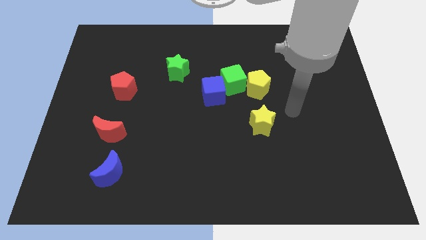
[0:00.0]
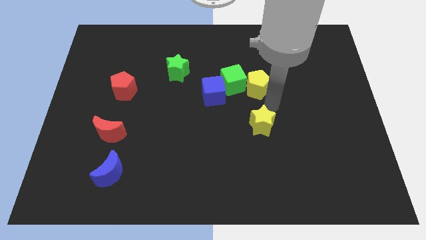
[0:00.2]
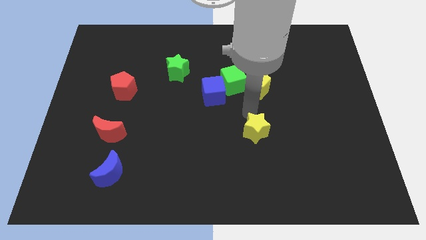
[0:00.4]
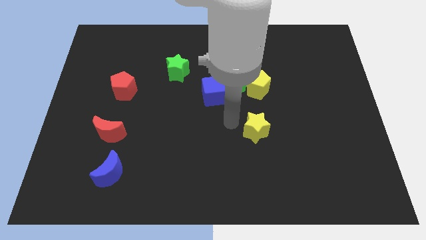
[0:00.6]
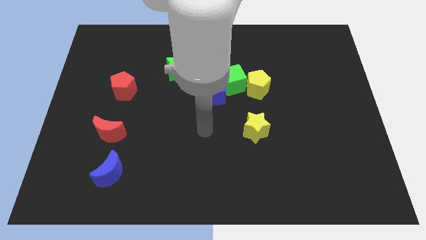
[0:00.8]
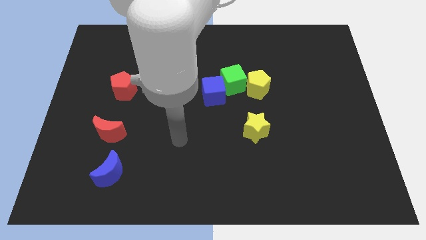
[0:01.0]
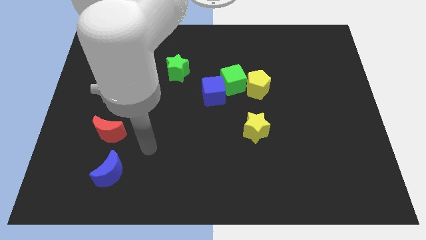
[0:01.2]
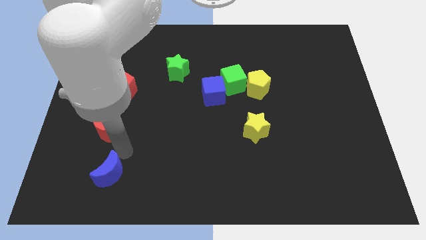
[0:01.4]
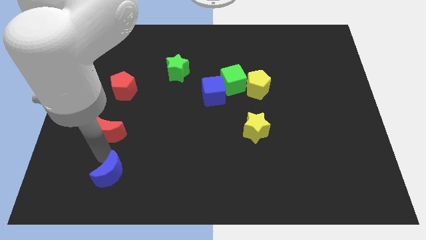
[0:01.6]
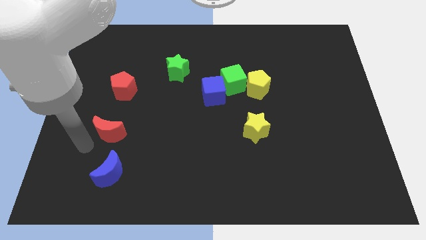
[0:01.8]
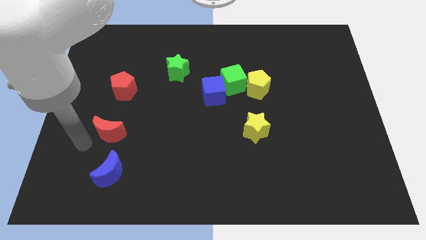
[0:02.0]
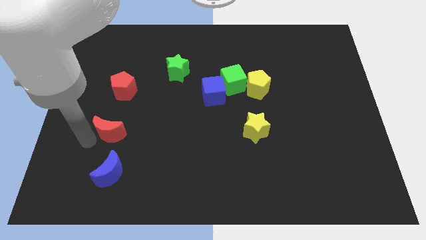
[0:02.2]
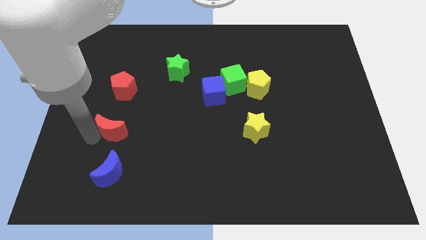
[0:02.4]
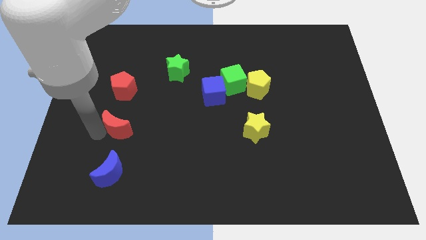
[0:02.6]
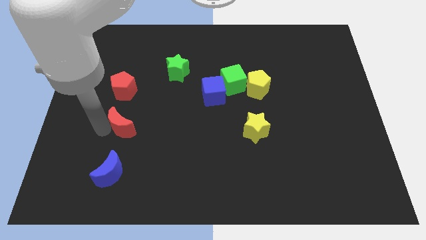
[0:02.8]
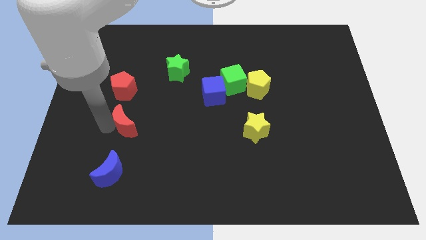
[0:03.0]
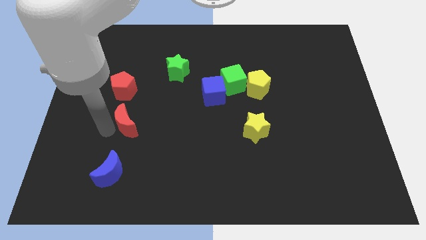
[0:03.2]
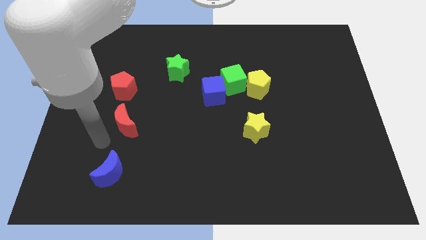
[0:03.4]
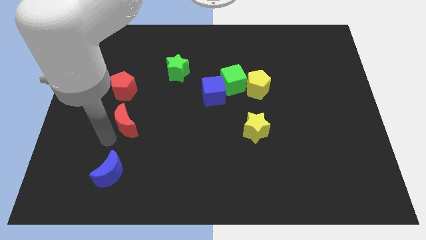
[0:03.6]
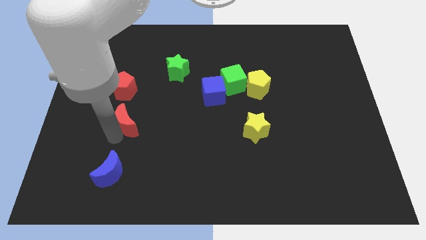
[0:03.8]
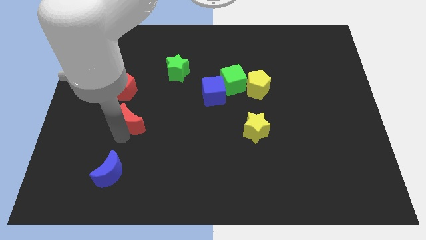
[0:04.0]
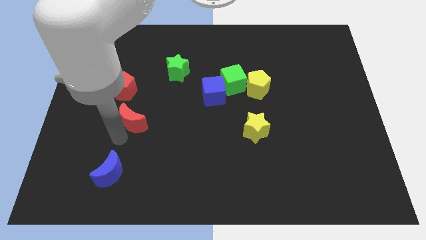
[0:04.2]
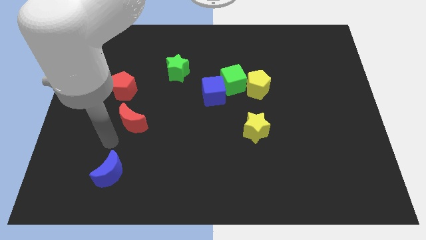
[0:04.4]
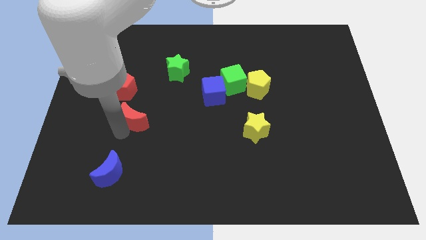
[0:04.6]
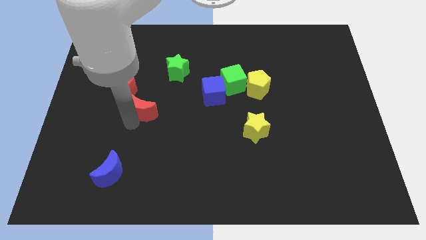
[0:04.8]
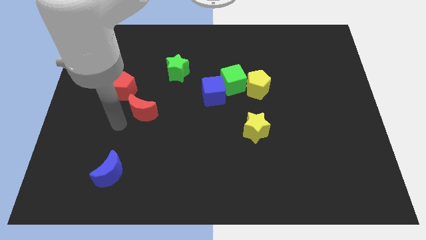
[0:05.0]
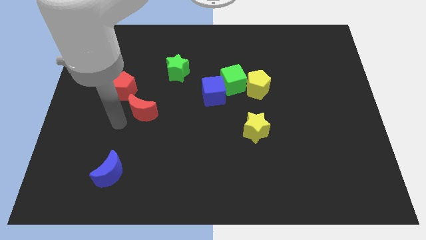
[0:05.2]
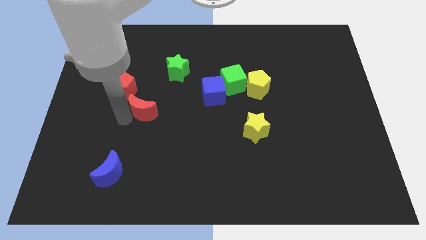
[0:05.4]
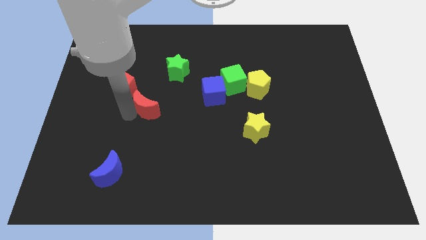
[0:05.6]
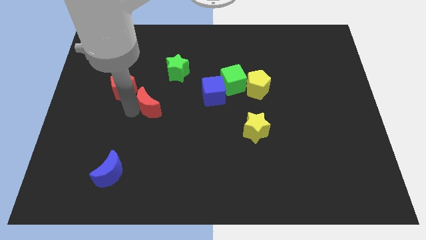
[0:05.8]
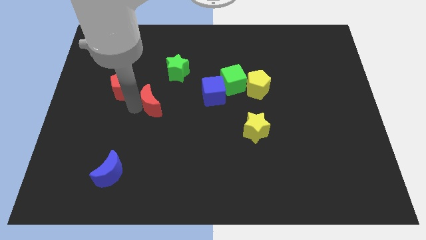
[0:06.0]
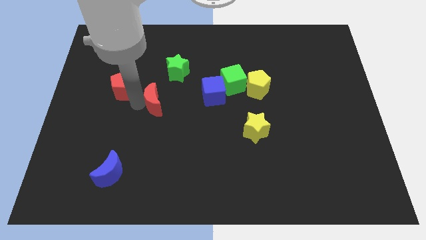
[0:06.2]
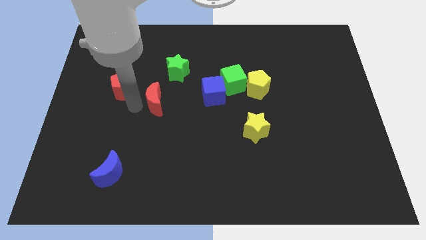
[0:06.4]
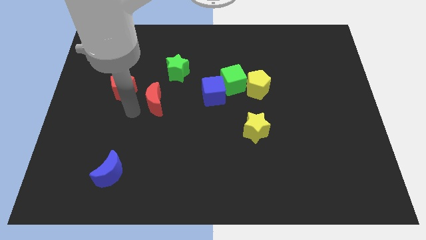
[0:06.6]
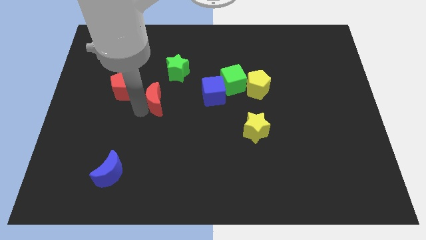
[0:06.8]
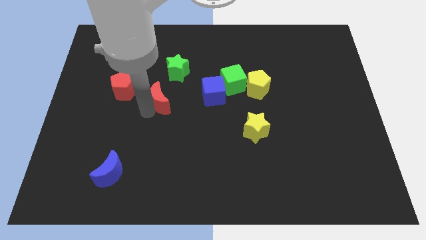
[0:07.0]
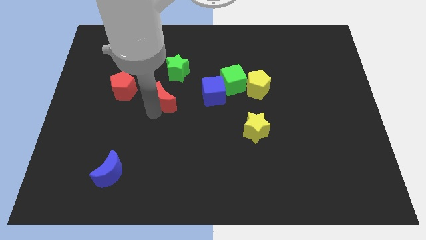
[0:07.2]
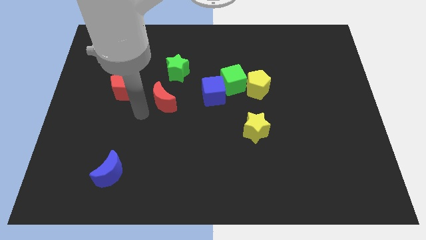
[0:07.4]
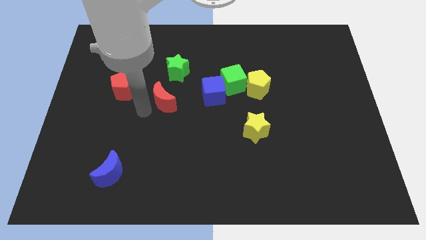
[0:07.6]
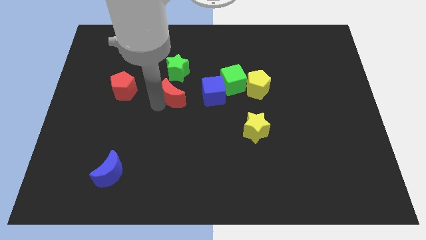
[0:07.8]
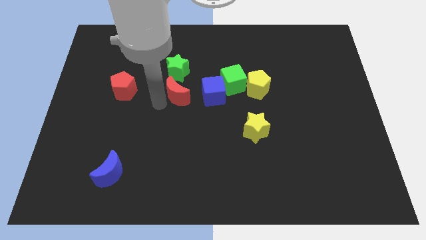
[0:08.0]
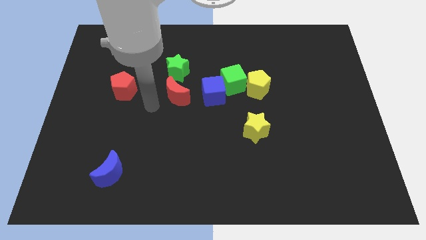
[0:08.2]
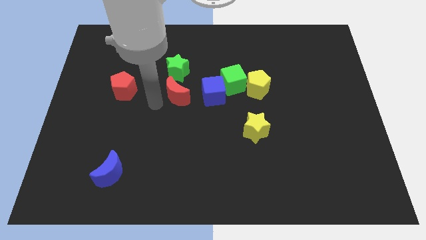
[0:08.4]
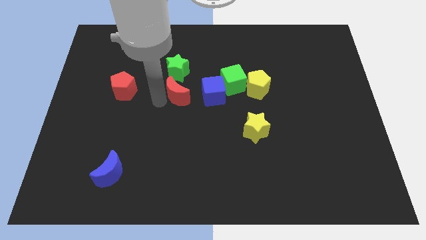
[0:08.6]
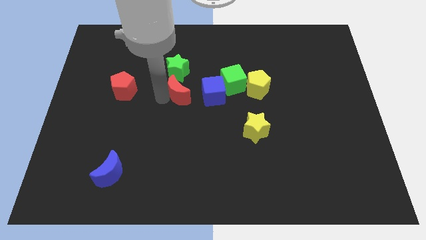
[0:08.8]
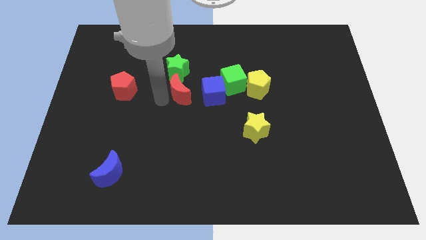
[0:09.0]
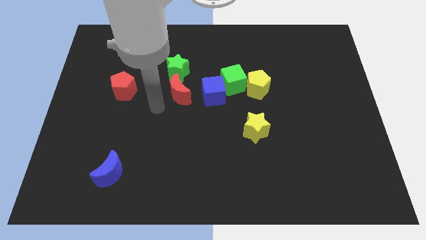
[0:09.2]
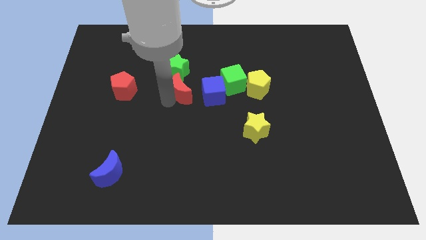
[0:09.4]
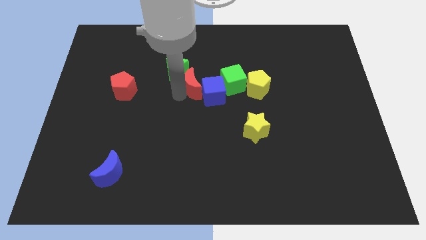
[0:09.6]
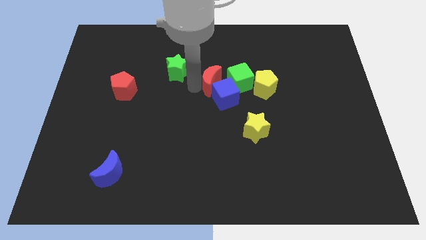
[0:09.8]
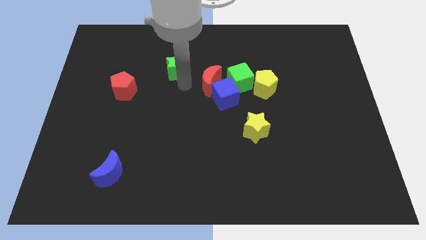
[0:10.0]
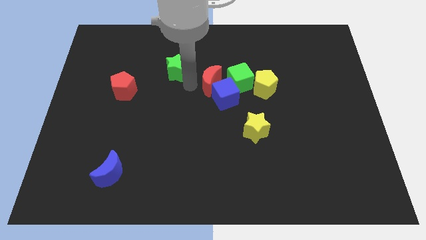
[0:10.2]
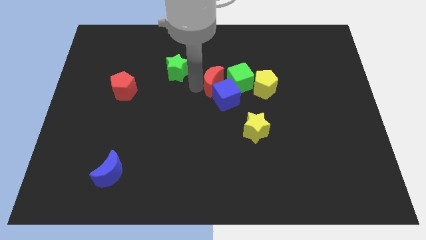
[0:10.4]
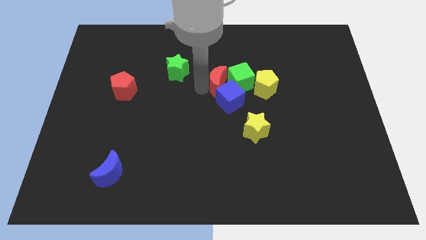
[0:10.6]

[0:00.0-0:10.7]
slide the red moon to the green cube

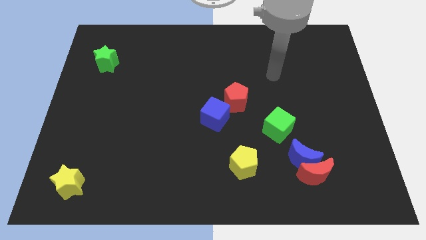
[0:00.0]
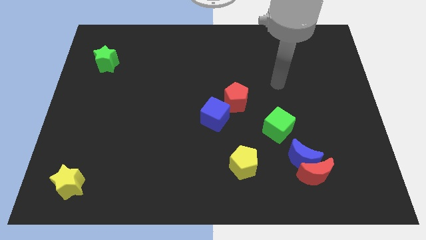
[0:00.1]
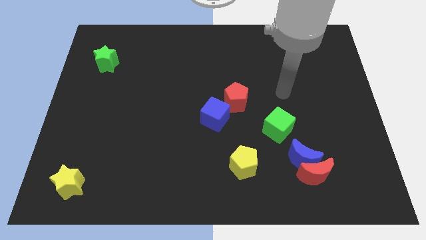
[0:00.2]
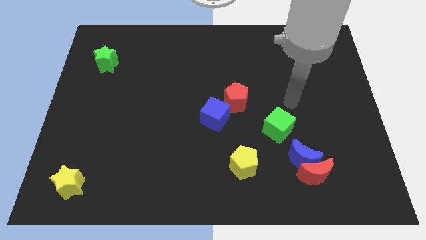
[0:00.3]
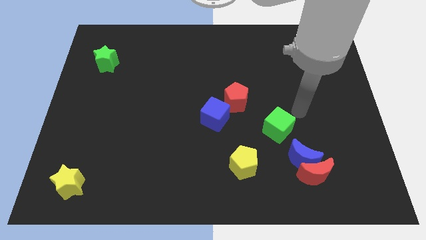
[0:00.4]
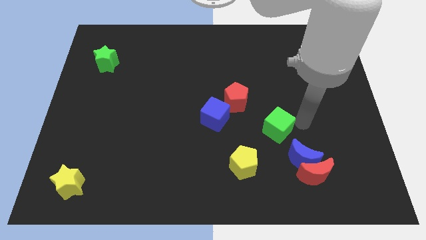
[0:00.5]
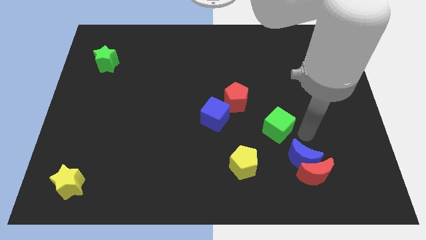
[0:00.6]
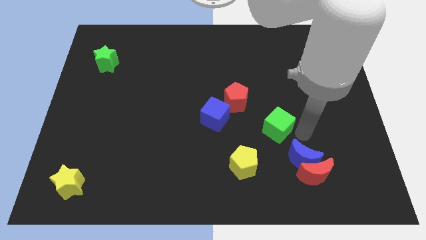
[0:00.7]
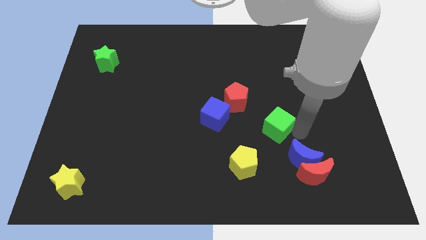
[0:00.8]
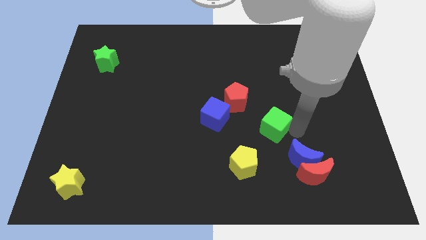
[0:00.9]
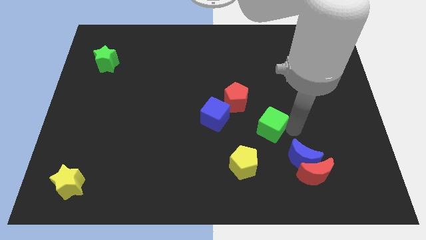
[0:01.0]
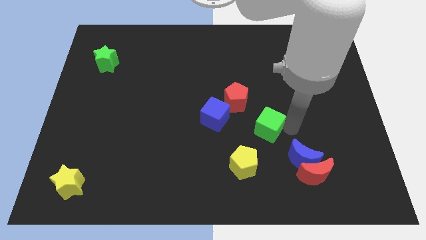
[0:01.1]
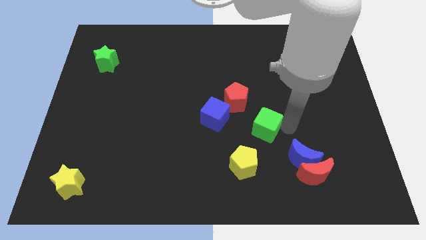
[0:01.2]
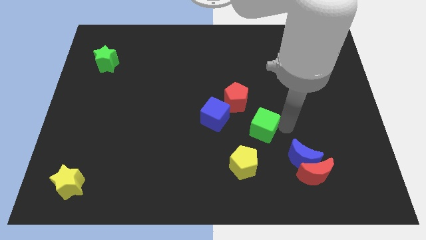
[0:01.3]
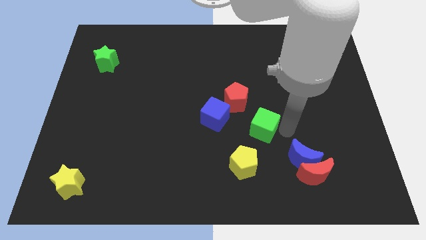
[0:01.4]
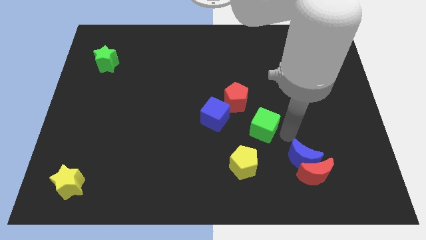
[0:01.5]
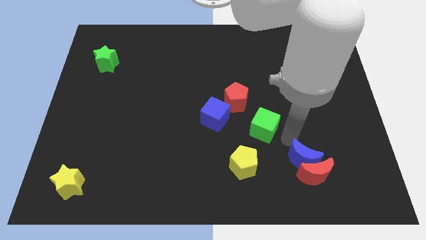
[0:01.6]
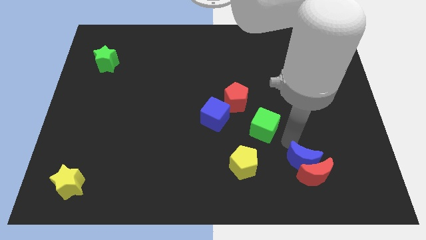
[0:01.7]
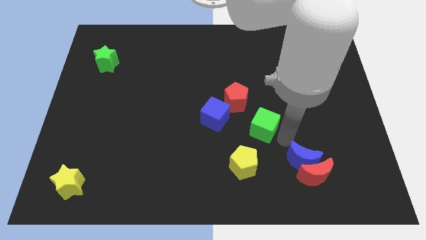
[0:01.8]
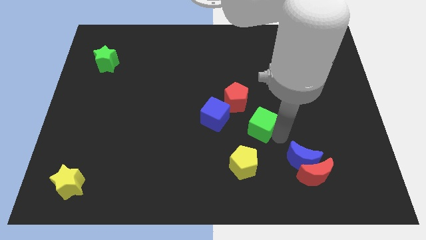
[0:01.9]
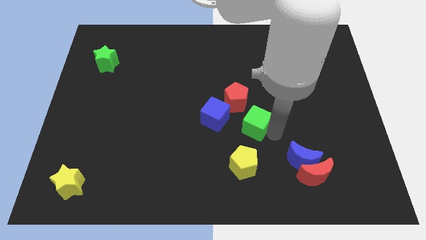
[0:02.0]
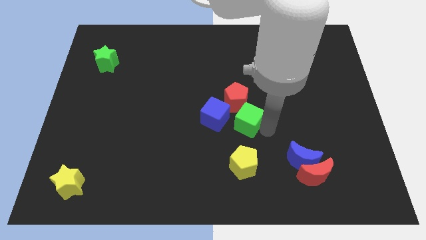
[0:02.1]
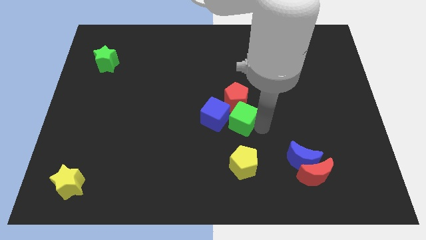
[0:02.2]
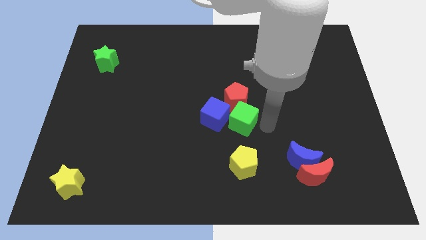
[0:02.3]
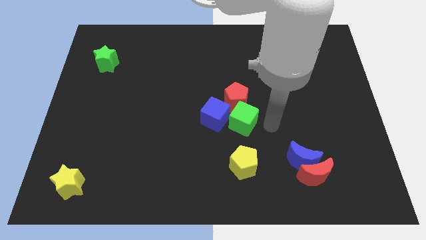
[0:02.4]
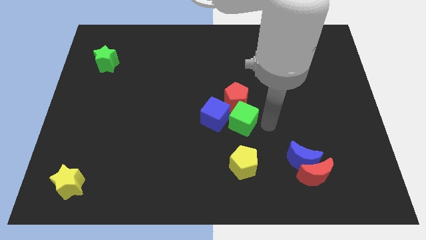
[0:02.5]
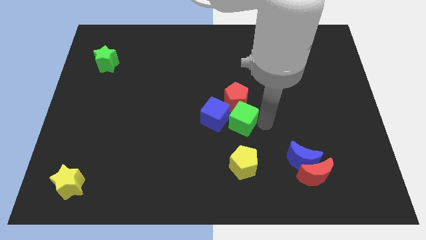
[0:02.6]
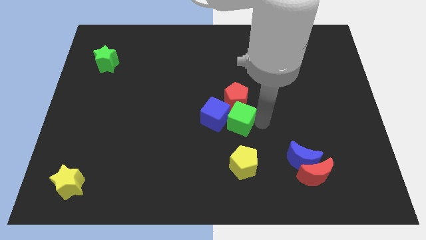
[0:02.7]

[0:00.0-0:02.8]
push the green cube next to the blue cube
